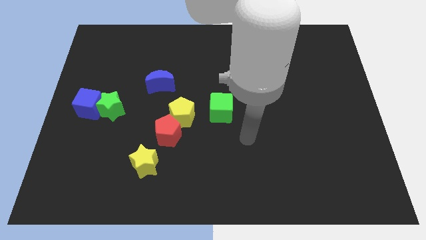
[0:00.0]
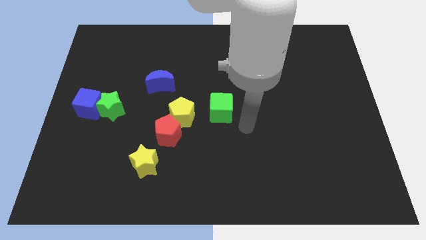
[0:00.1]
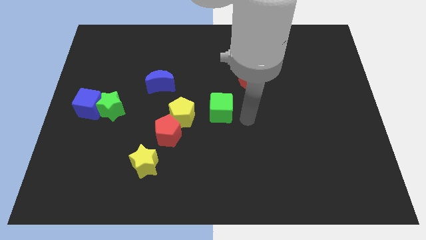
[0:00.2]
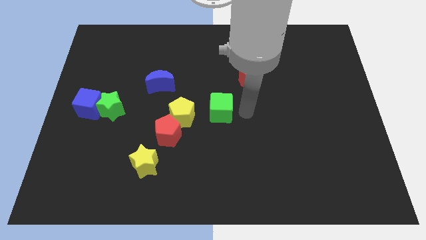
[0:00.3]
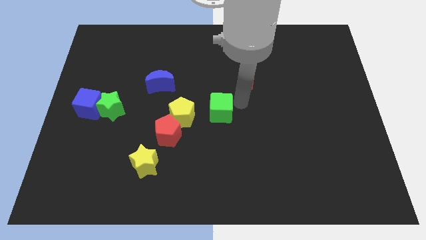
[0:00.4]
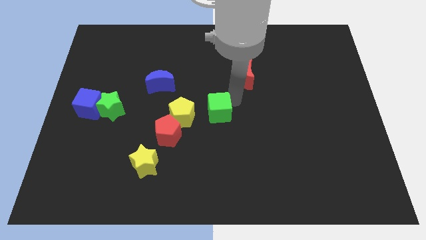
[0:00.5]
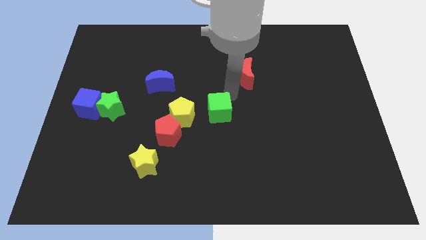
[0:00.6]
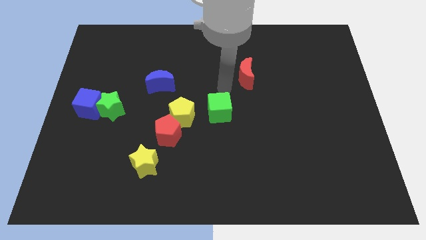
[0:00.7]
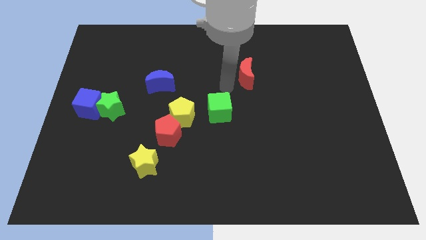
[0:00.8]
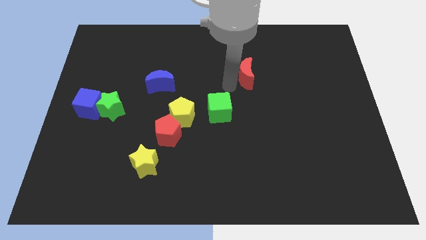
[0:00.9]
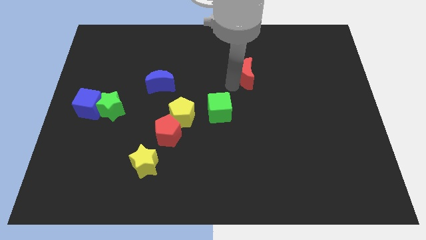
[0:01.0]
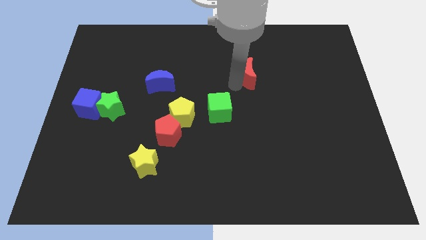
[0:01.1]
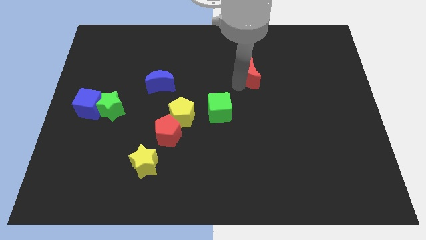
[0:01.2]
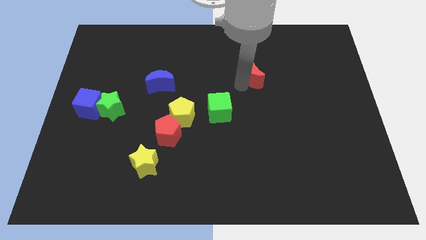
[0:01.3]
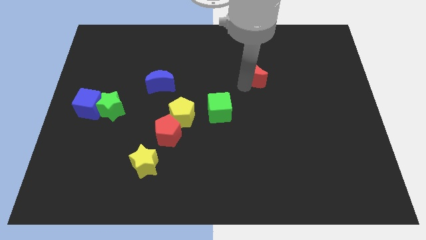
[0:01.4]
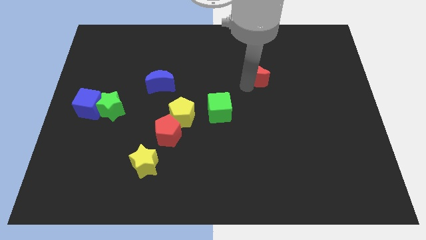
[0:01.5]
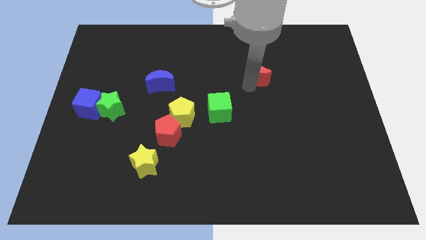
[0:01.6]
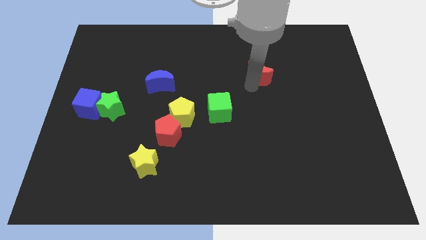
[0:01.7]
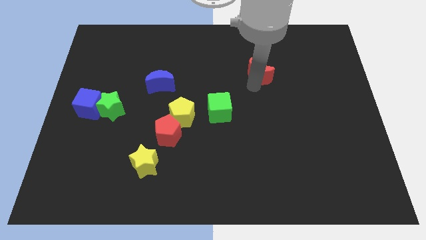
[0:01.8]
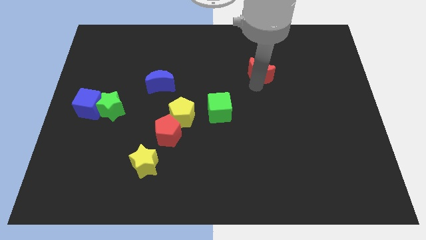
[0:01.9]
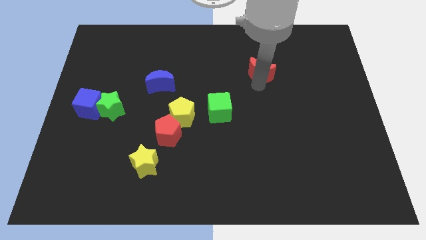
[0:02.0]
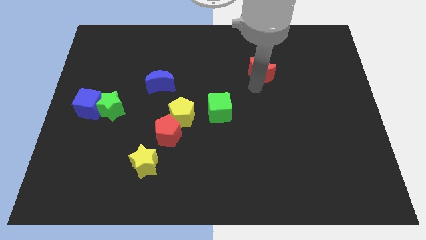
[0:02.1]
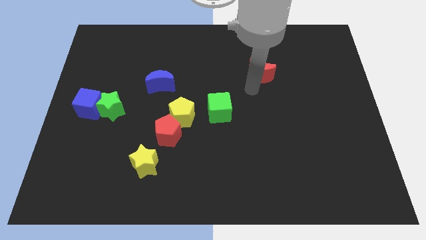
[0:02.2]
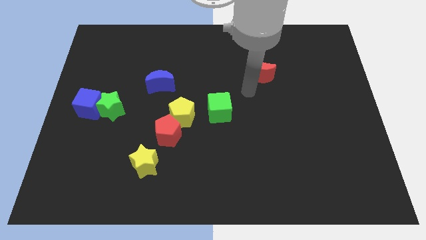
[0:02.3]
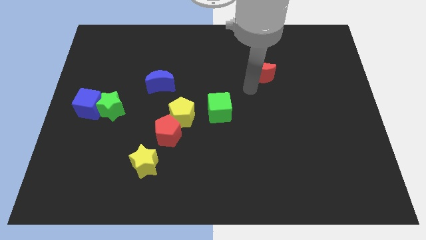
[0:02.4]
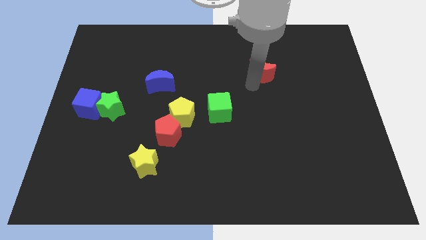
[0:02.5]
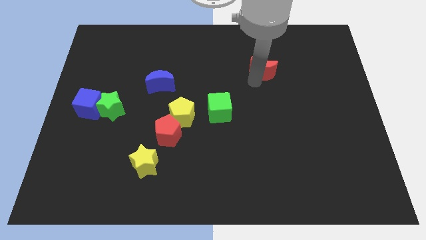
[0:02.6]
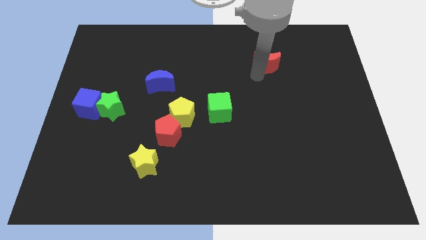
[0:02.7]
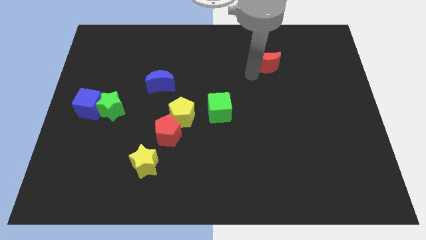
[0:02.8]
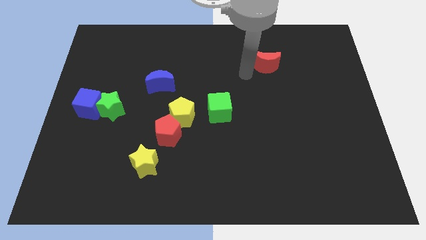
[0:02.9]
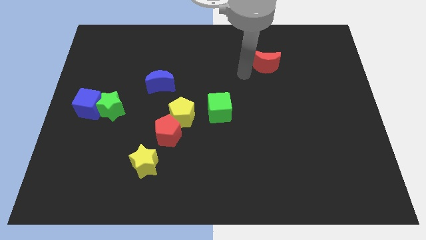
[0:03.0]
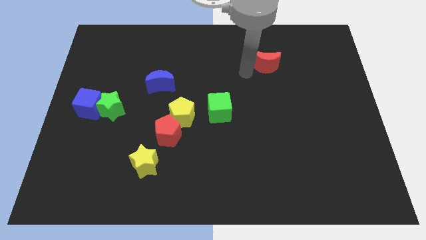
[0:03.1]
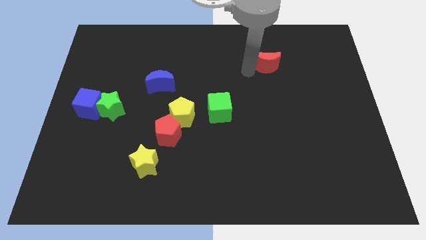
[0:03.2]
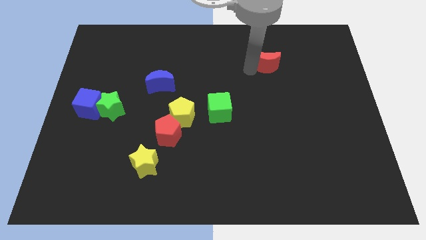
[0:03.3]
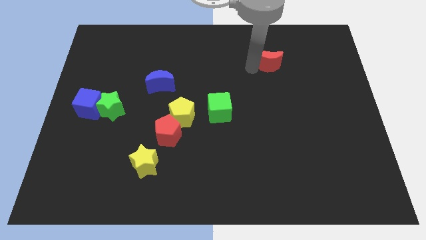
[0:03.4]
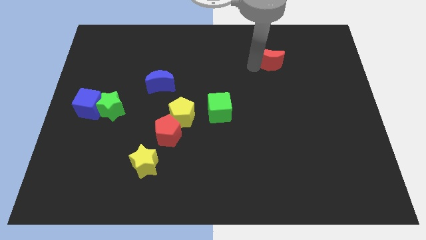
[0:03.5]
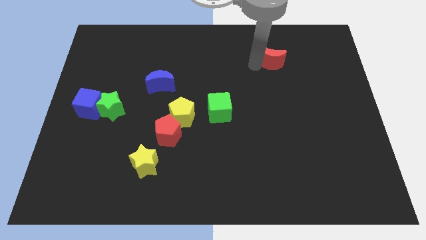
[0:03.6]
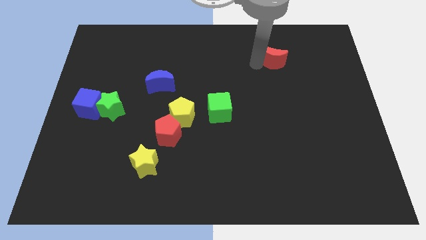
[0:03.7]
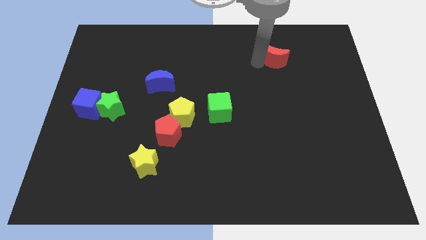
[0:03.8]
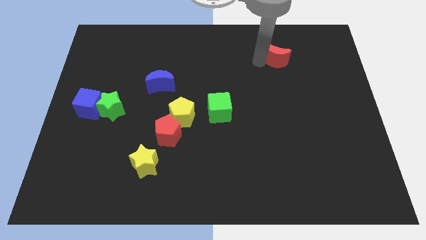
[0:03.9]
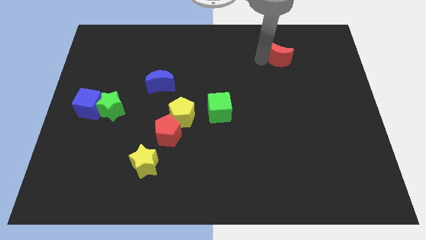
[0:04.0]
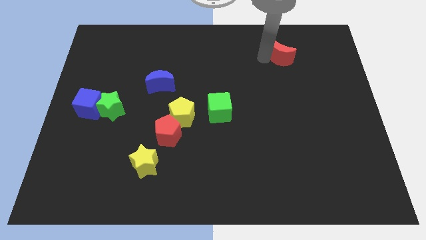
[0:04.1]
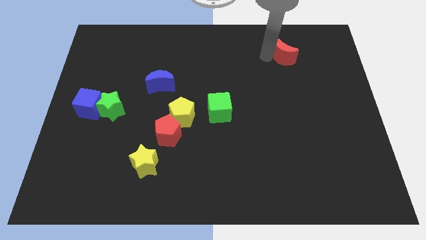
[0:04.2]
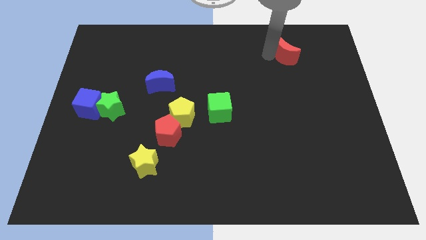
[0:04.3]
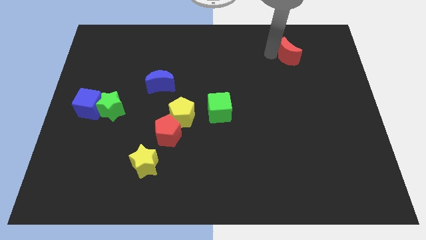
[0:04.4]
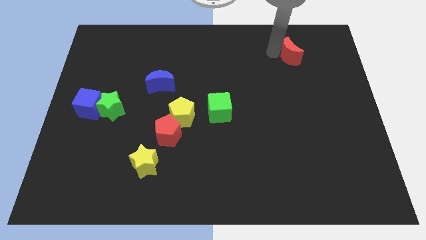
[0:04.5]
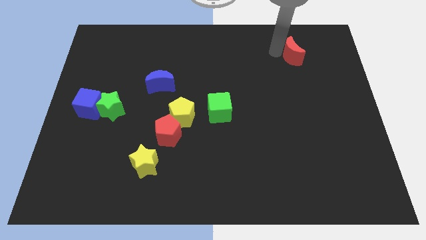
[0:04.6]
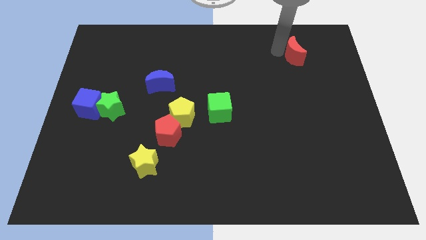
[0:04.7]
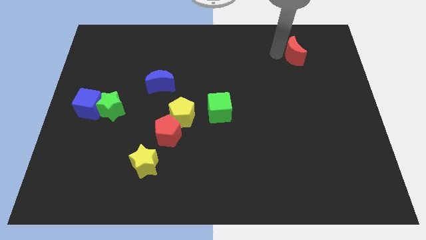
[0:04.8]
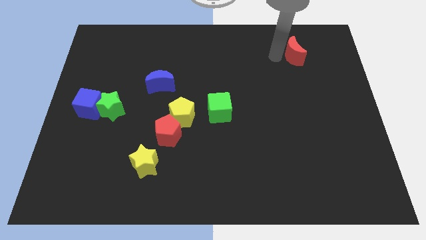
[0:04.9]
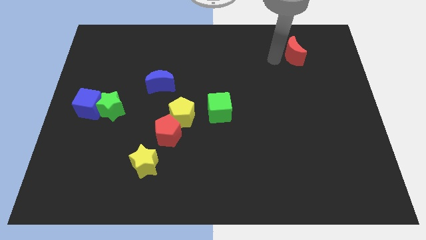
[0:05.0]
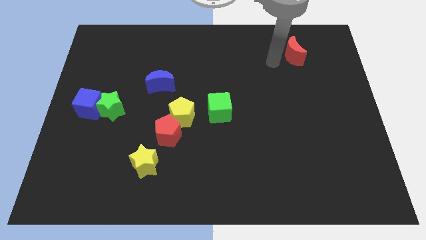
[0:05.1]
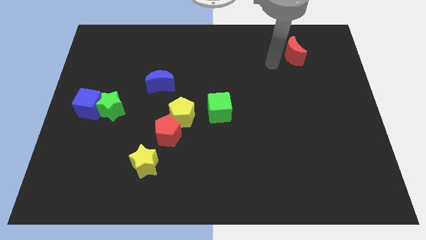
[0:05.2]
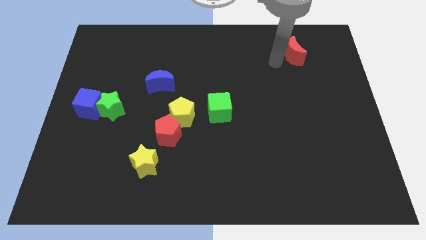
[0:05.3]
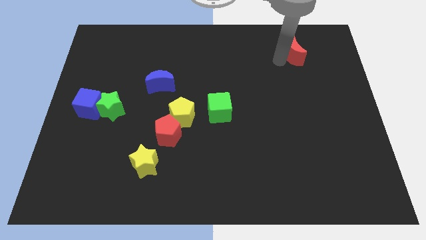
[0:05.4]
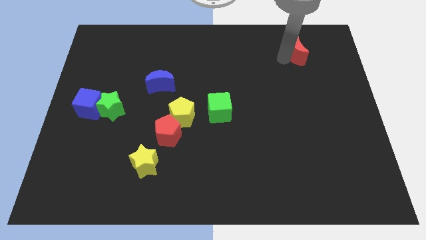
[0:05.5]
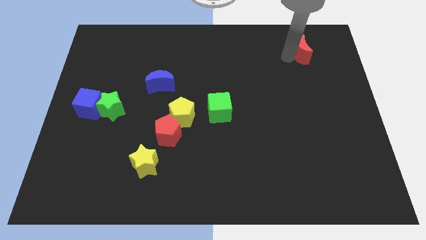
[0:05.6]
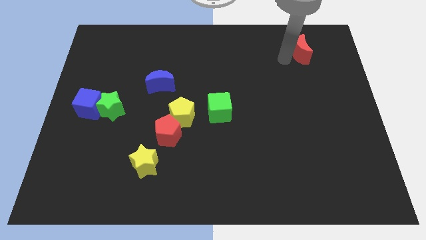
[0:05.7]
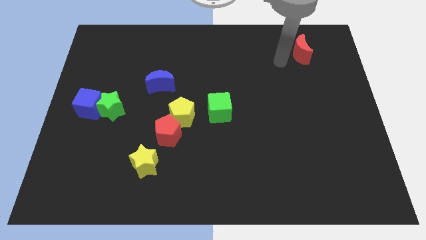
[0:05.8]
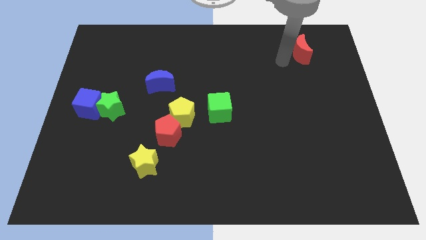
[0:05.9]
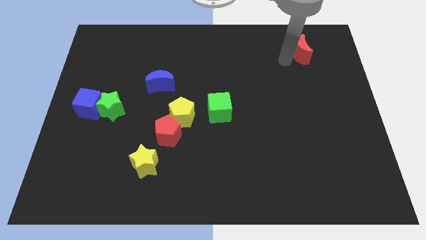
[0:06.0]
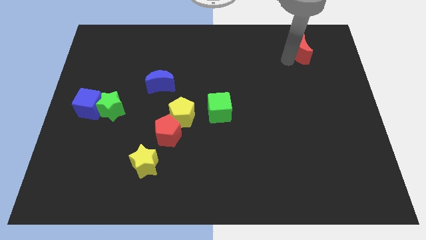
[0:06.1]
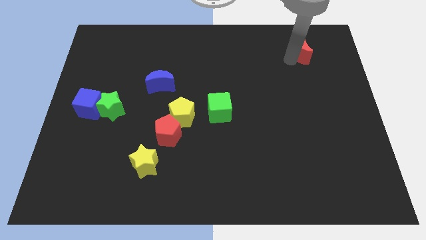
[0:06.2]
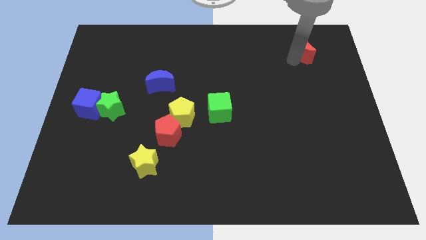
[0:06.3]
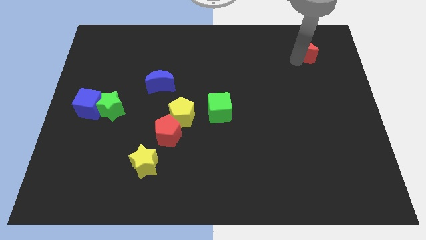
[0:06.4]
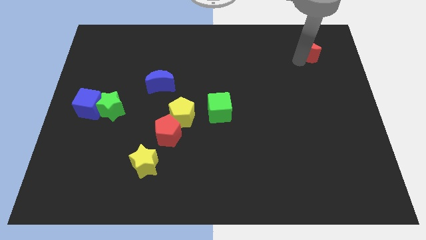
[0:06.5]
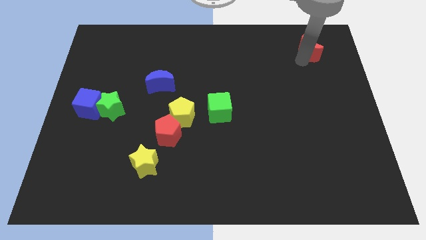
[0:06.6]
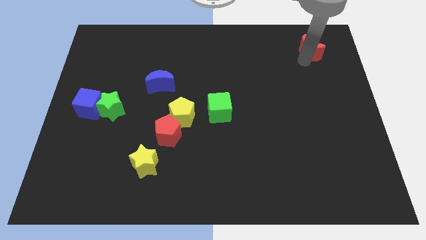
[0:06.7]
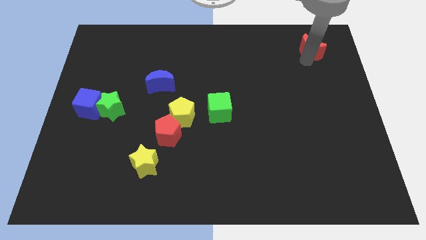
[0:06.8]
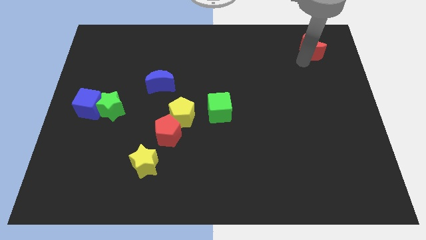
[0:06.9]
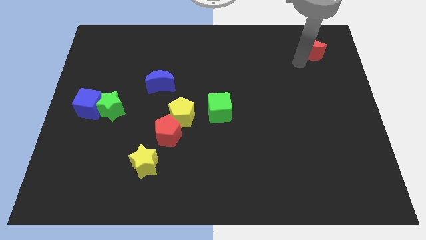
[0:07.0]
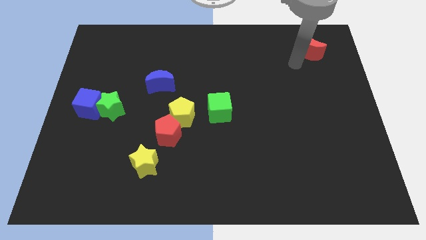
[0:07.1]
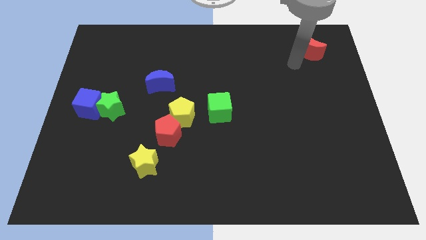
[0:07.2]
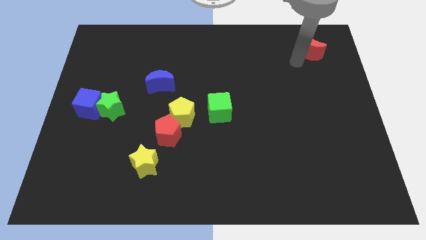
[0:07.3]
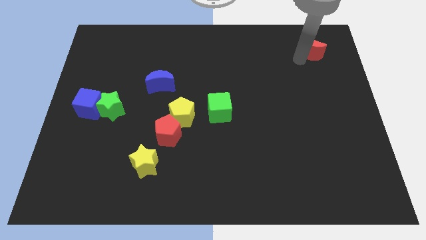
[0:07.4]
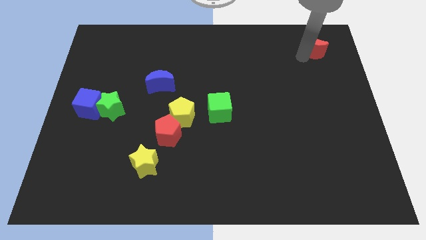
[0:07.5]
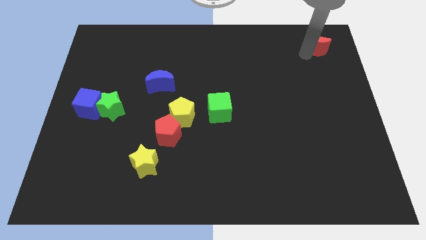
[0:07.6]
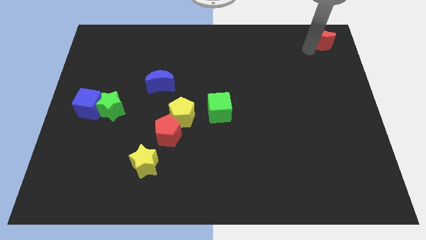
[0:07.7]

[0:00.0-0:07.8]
slide the red moon to the top right
